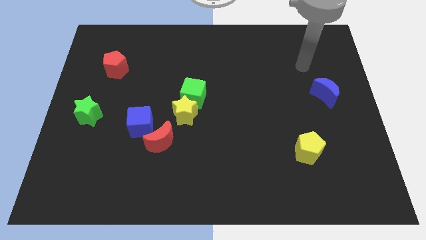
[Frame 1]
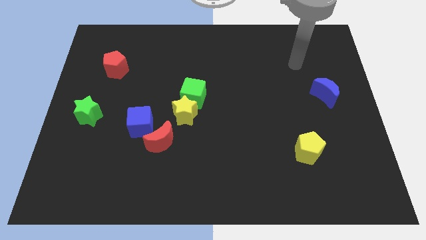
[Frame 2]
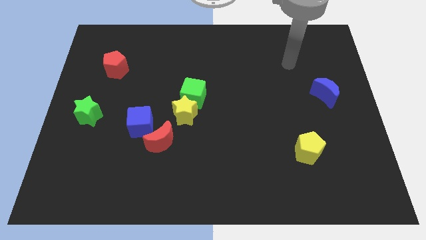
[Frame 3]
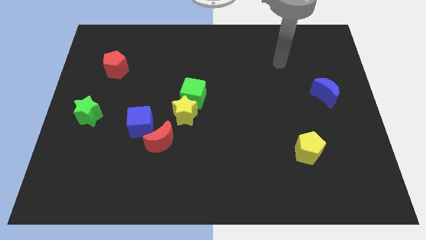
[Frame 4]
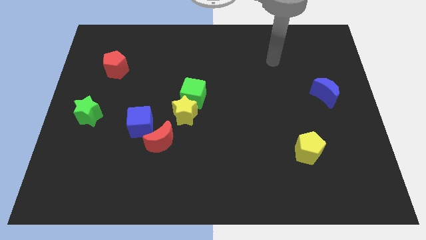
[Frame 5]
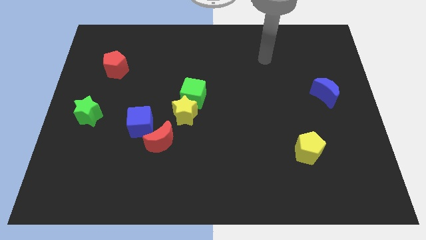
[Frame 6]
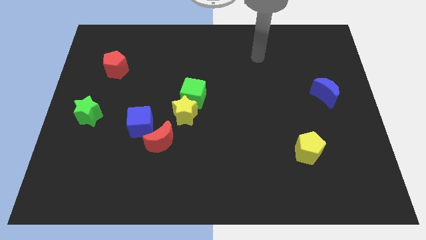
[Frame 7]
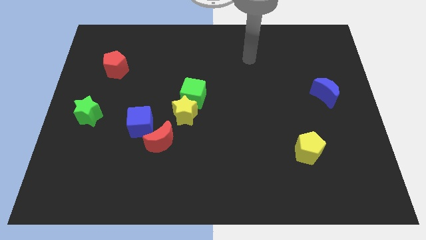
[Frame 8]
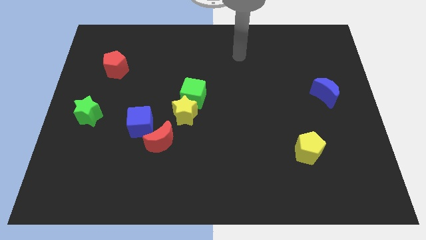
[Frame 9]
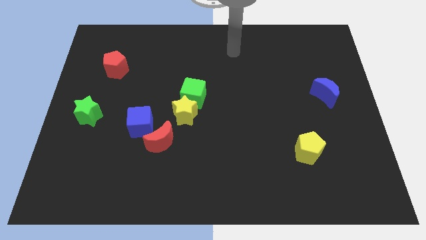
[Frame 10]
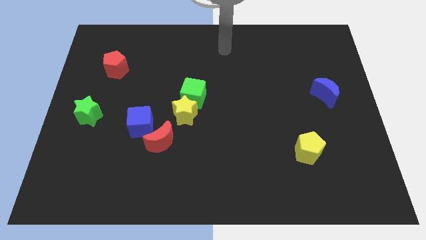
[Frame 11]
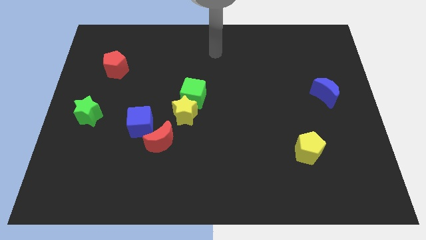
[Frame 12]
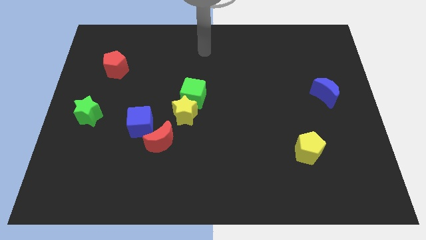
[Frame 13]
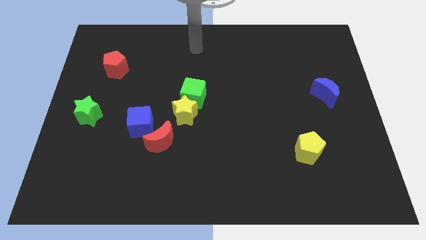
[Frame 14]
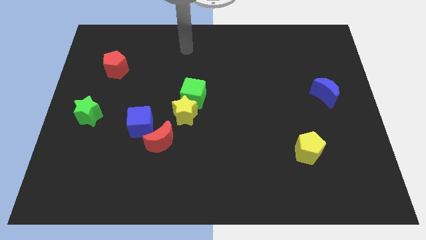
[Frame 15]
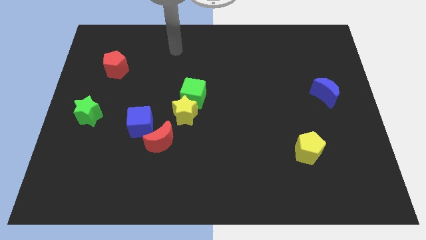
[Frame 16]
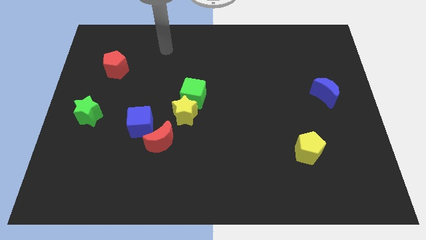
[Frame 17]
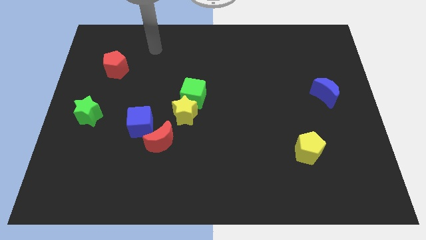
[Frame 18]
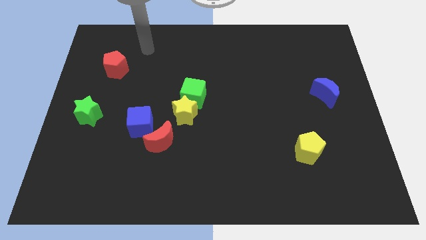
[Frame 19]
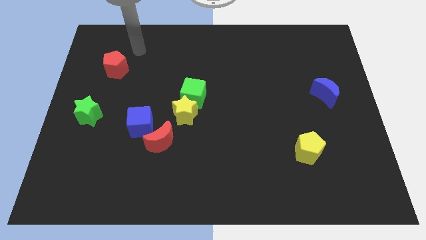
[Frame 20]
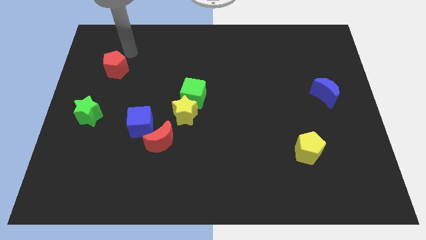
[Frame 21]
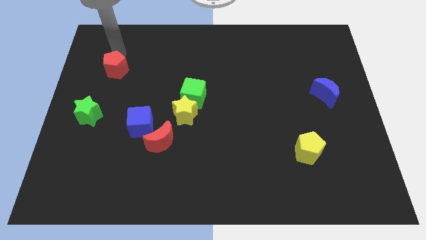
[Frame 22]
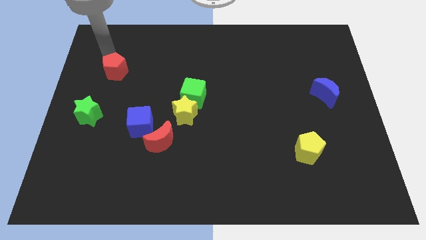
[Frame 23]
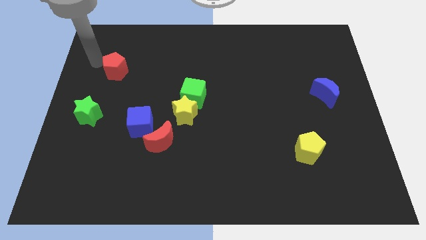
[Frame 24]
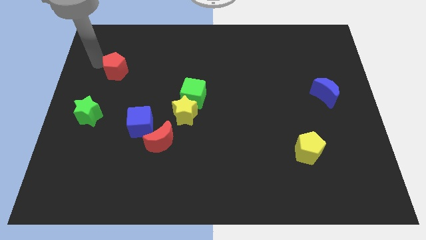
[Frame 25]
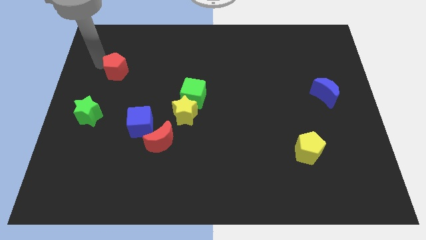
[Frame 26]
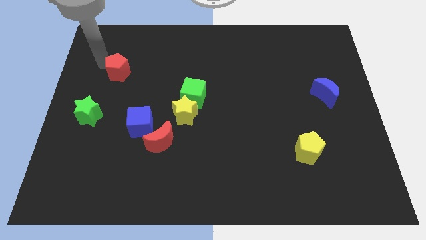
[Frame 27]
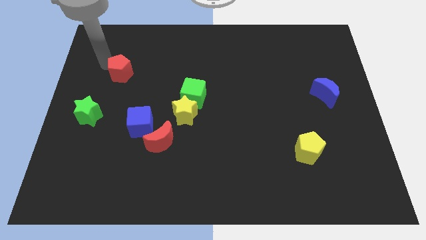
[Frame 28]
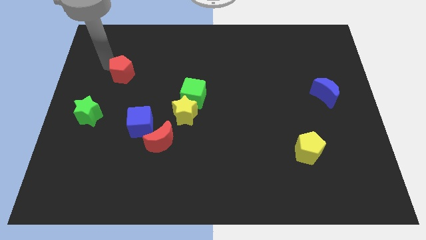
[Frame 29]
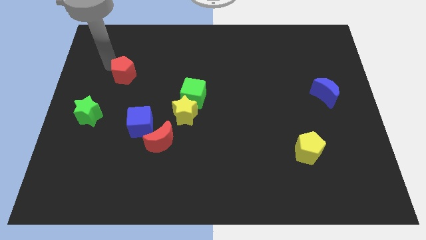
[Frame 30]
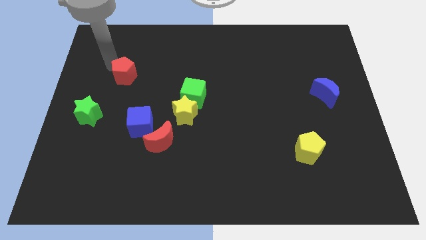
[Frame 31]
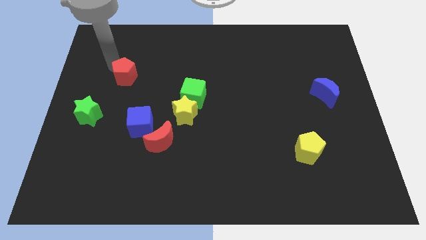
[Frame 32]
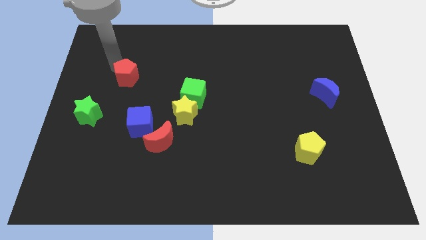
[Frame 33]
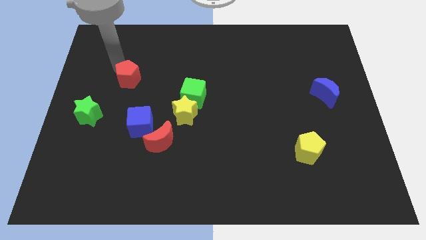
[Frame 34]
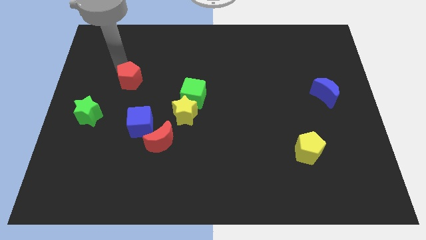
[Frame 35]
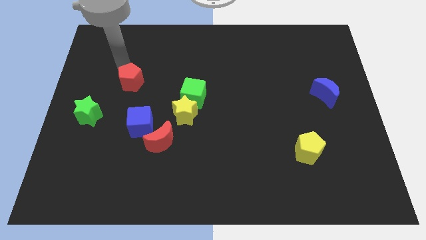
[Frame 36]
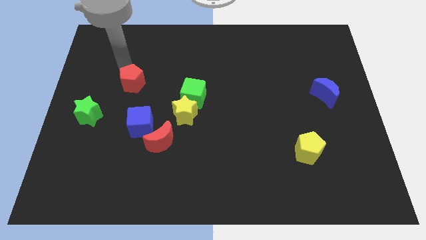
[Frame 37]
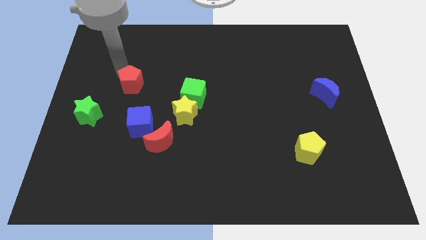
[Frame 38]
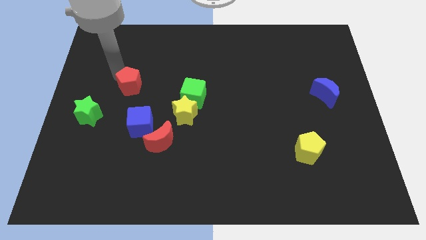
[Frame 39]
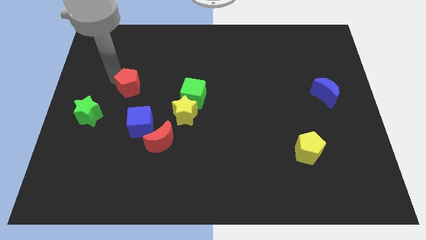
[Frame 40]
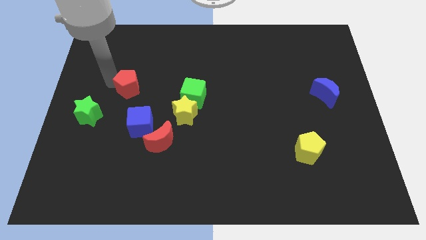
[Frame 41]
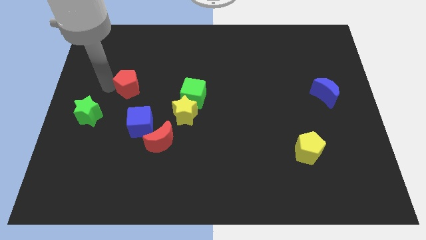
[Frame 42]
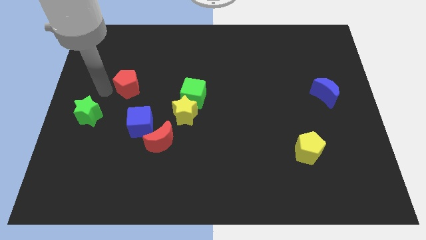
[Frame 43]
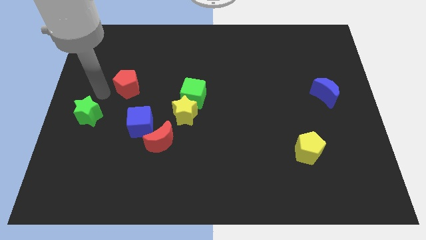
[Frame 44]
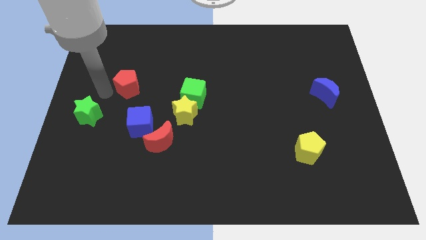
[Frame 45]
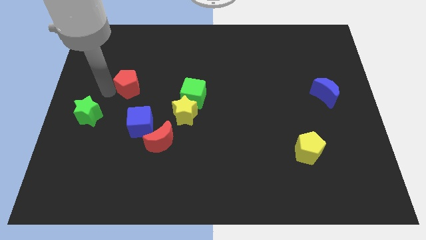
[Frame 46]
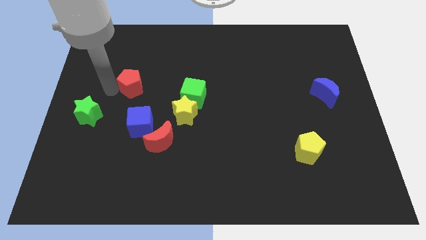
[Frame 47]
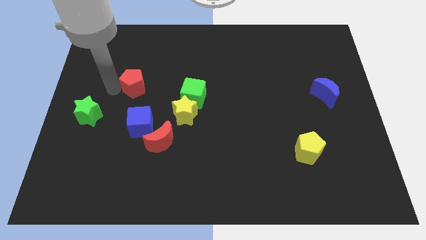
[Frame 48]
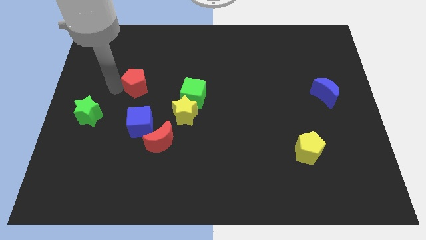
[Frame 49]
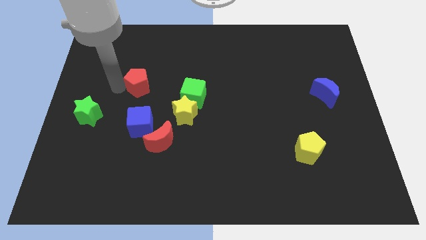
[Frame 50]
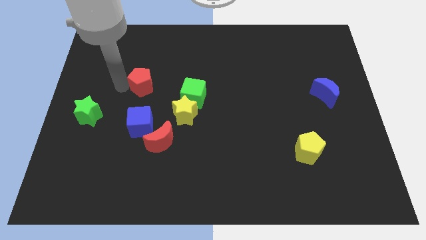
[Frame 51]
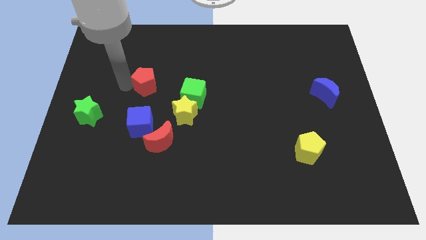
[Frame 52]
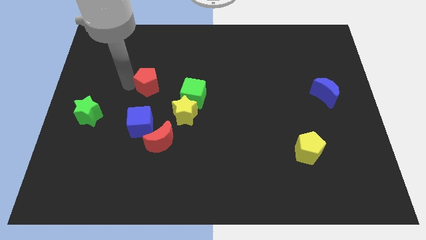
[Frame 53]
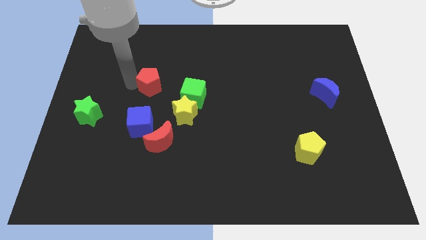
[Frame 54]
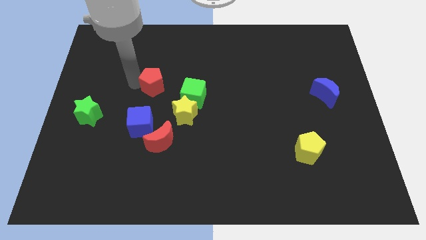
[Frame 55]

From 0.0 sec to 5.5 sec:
move the red pentagon diagonally up and to the left of the green cube

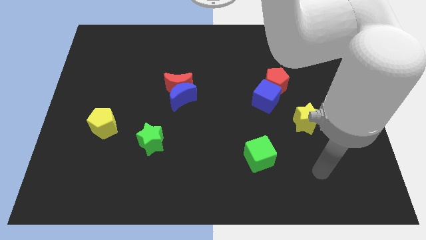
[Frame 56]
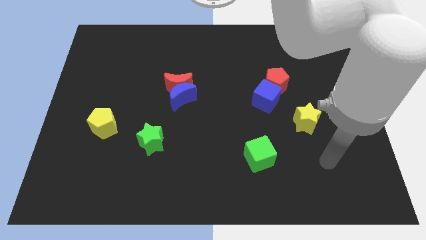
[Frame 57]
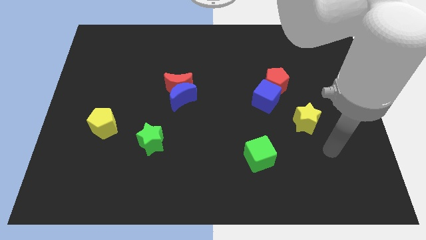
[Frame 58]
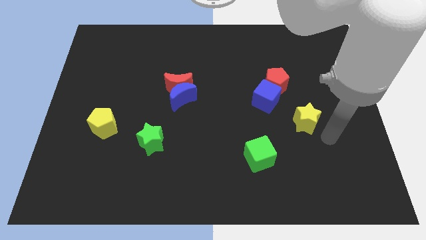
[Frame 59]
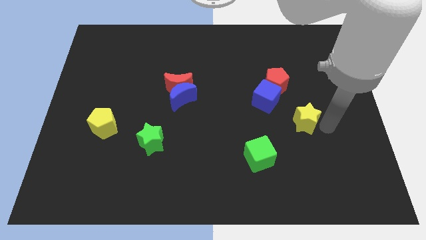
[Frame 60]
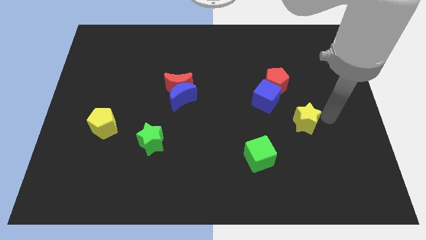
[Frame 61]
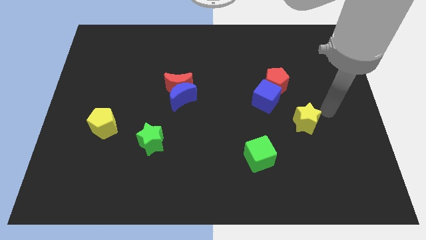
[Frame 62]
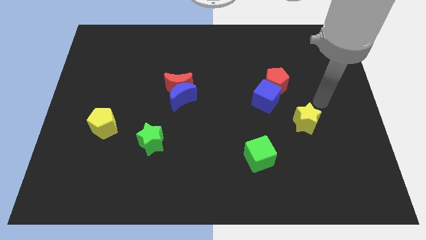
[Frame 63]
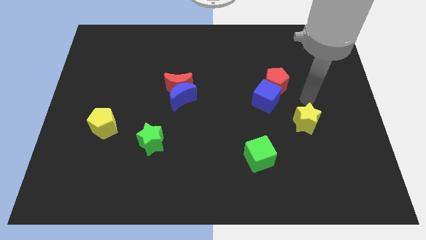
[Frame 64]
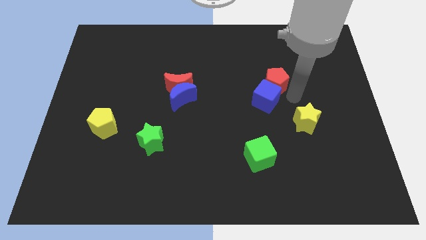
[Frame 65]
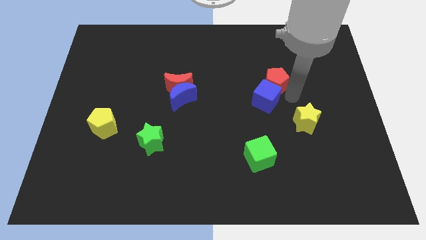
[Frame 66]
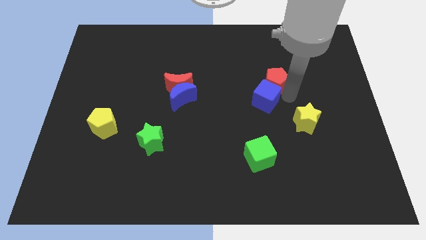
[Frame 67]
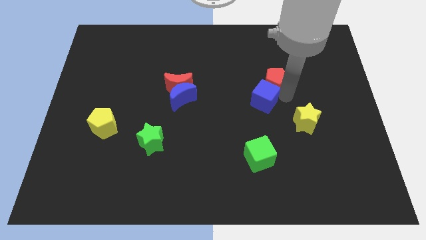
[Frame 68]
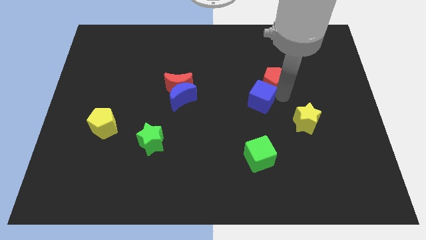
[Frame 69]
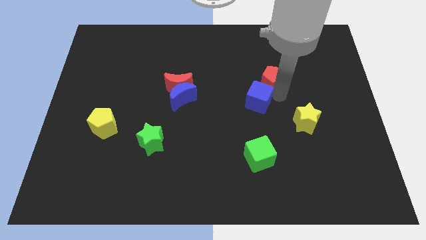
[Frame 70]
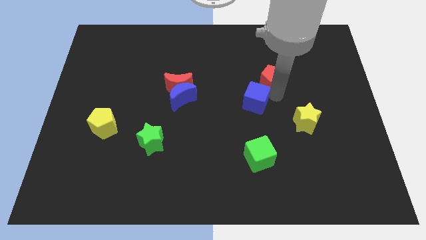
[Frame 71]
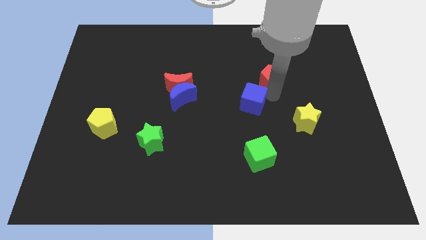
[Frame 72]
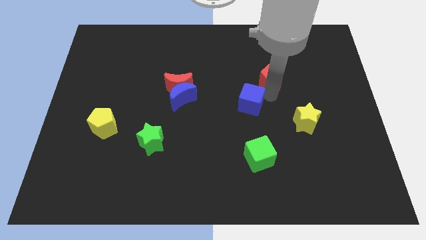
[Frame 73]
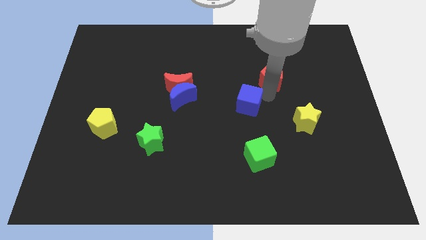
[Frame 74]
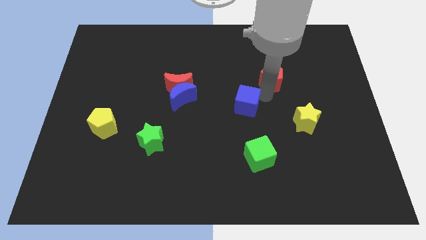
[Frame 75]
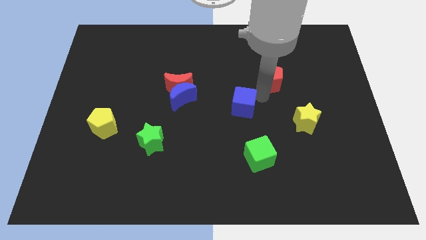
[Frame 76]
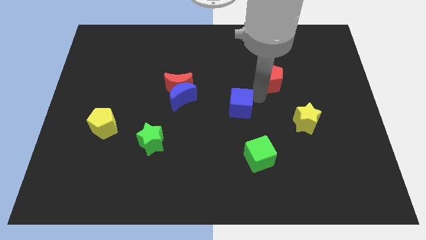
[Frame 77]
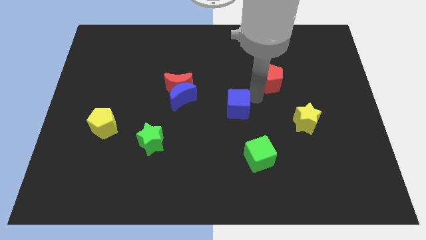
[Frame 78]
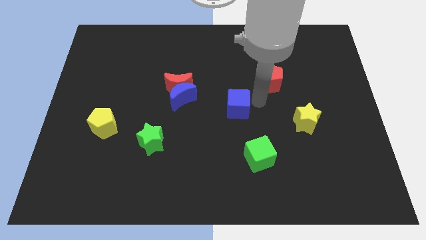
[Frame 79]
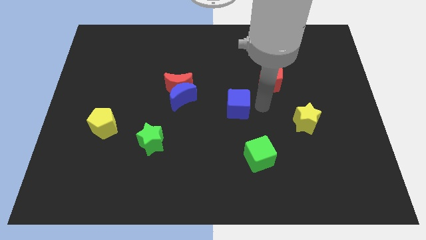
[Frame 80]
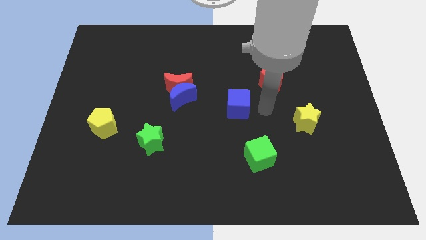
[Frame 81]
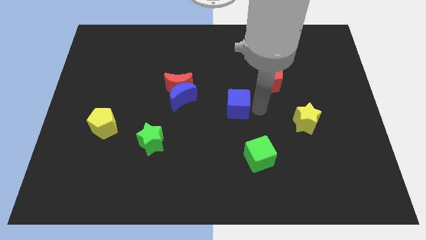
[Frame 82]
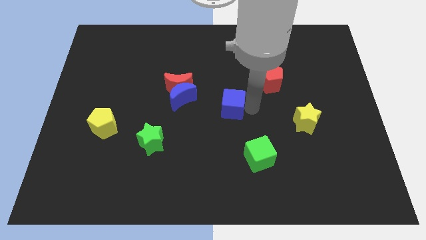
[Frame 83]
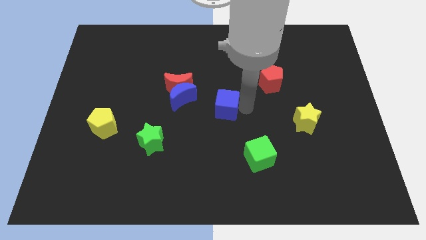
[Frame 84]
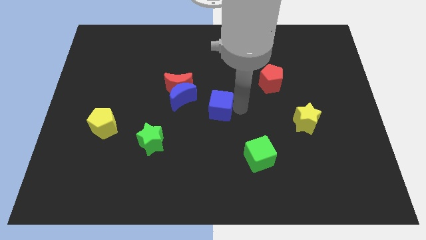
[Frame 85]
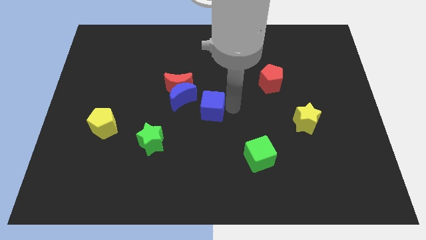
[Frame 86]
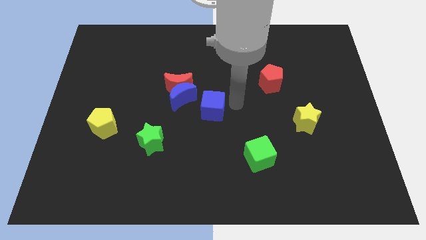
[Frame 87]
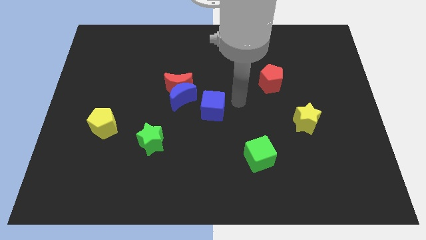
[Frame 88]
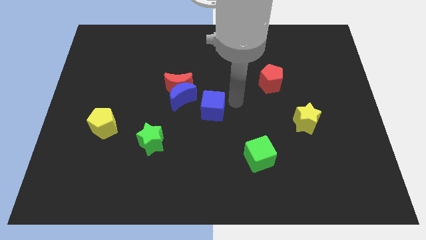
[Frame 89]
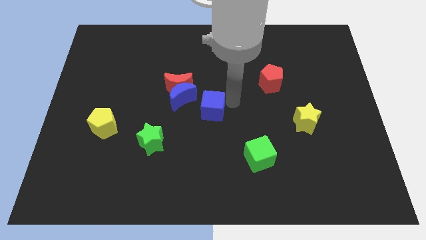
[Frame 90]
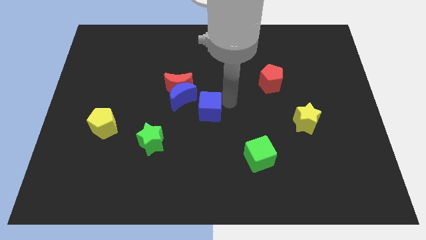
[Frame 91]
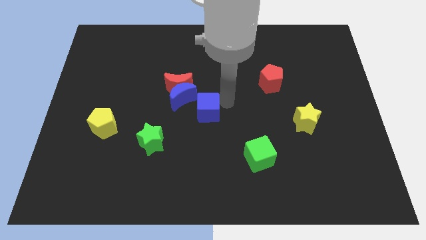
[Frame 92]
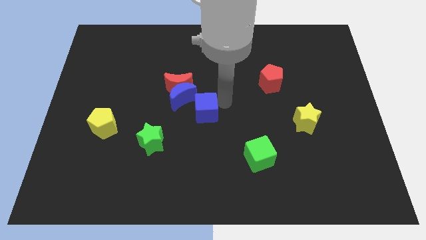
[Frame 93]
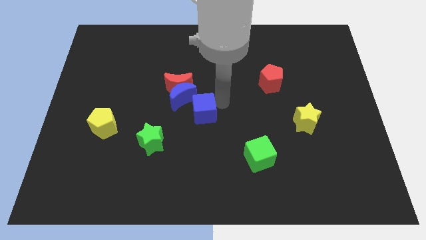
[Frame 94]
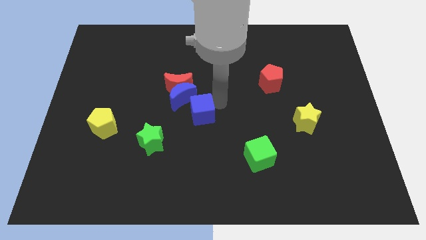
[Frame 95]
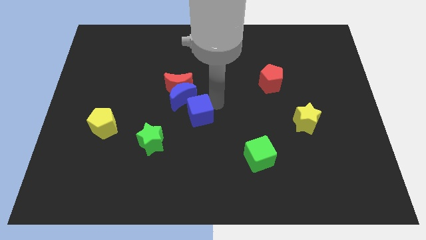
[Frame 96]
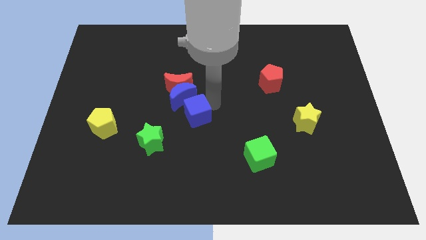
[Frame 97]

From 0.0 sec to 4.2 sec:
move the blue cube to the bottom of the red moon
